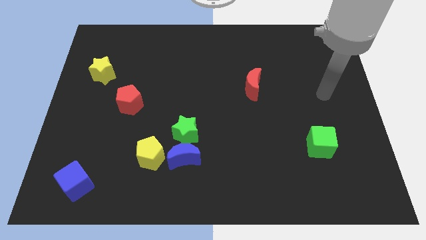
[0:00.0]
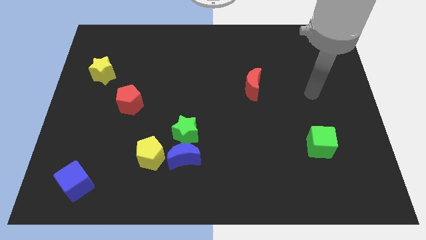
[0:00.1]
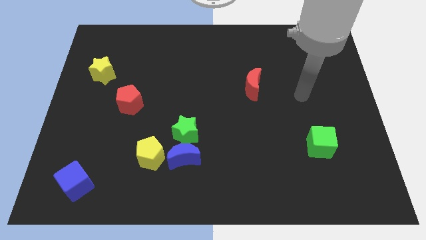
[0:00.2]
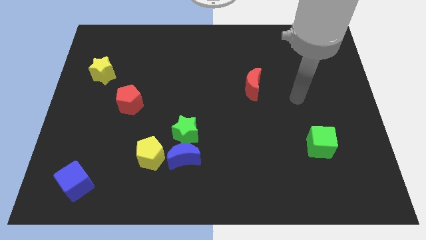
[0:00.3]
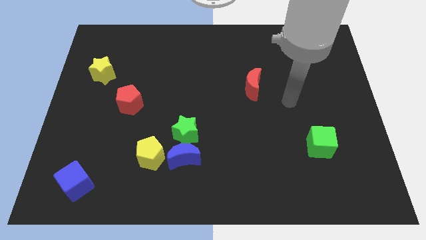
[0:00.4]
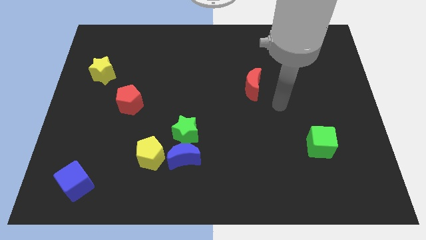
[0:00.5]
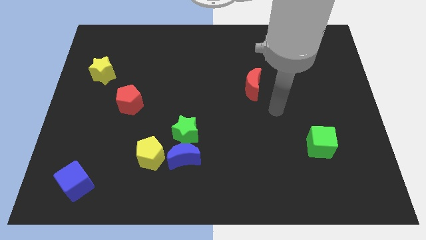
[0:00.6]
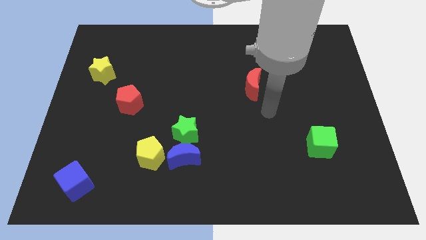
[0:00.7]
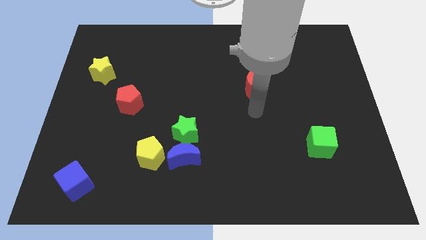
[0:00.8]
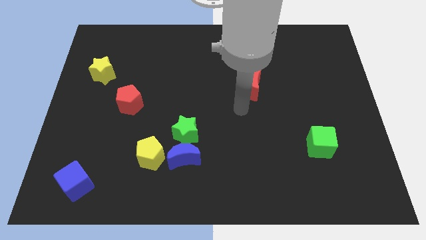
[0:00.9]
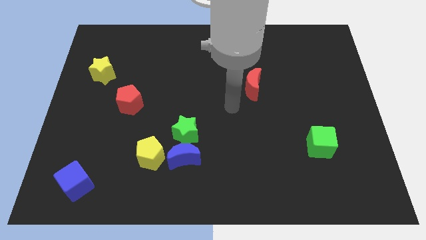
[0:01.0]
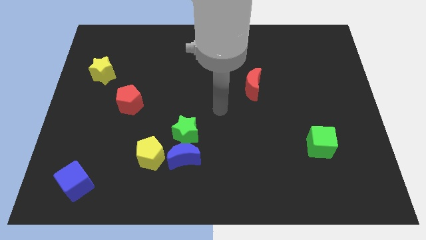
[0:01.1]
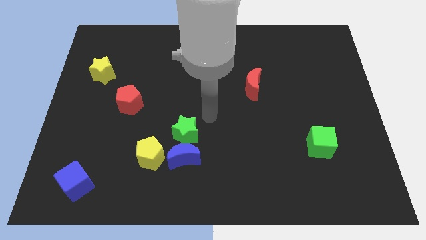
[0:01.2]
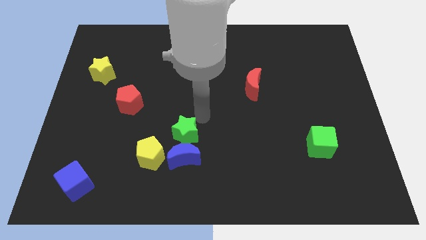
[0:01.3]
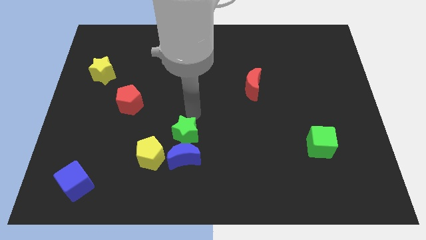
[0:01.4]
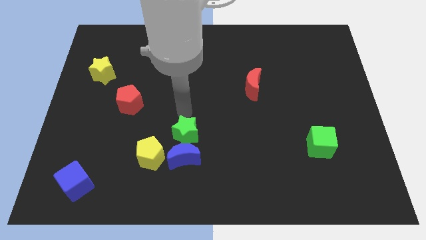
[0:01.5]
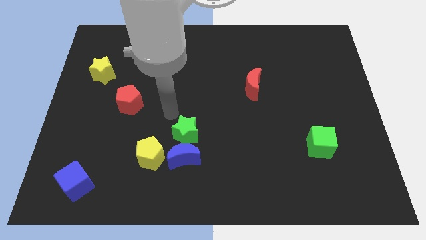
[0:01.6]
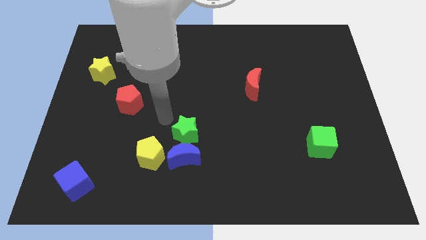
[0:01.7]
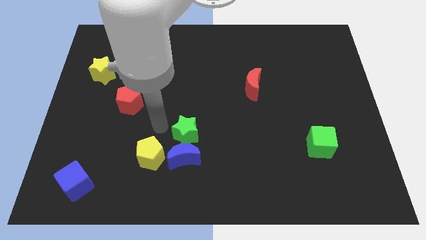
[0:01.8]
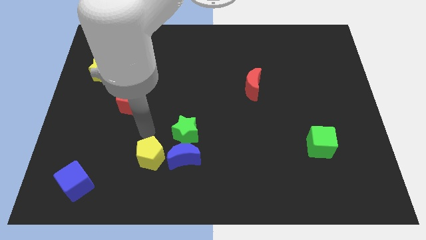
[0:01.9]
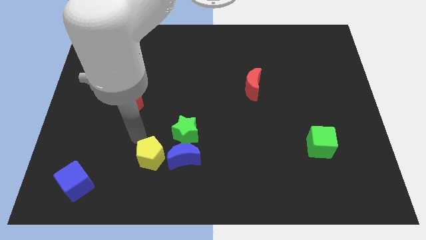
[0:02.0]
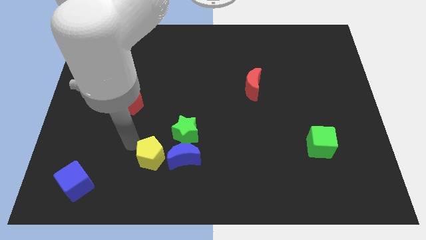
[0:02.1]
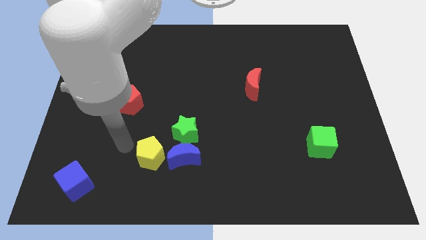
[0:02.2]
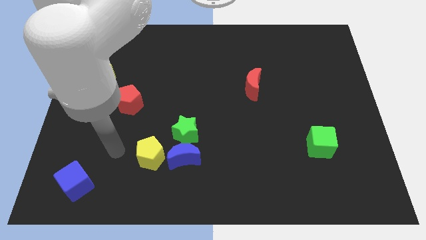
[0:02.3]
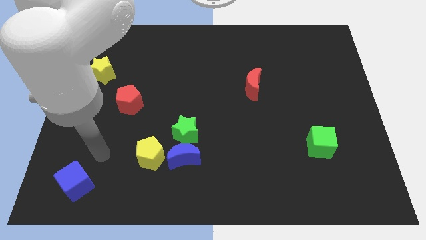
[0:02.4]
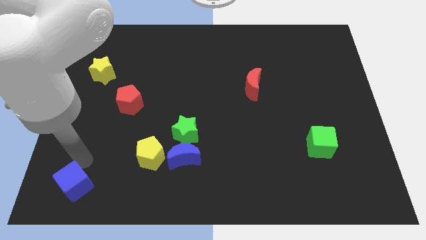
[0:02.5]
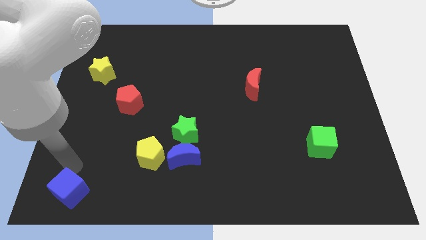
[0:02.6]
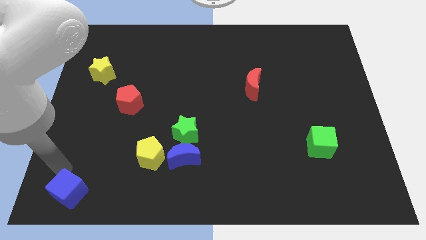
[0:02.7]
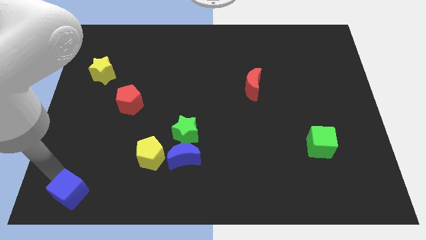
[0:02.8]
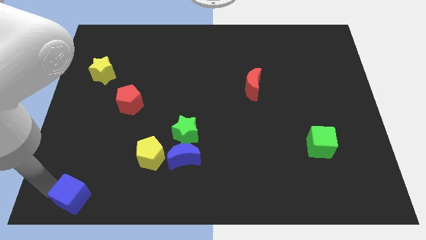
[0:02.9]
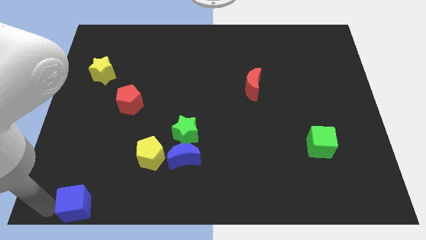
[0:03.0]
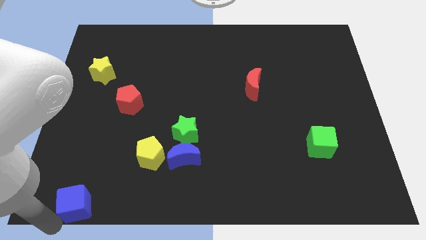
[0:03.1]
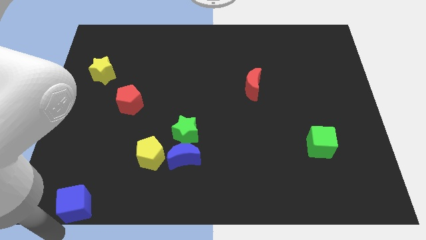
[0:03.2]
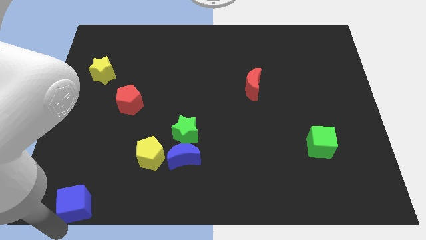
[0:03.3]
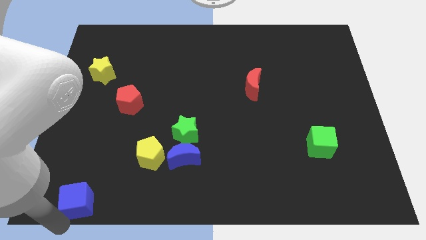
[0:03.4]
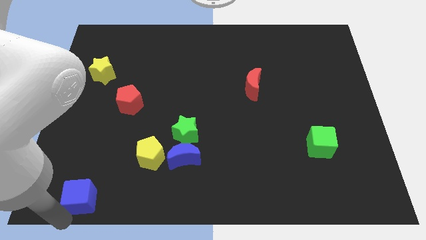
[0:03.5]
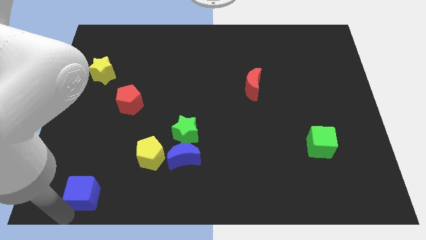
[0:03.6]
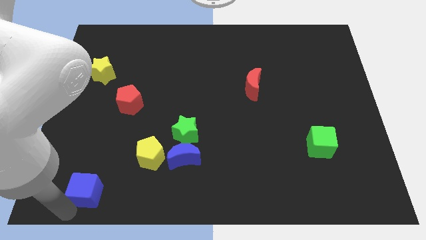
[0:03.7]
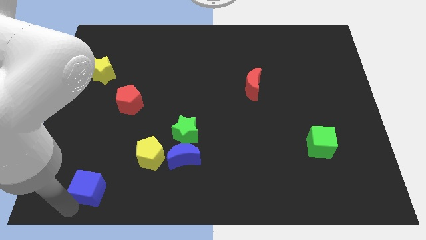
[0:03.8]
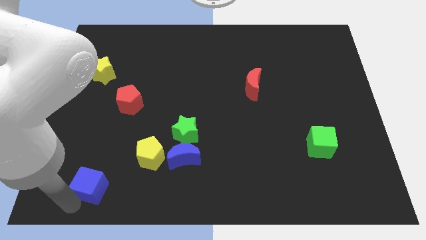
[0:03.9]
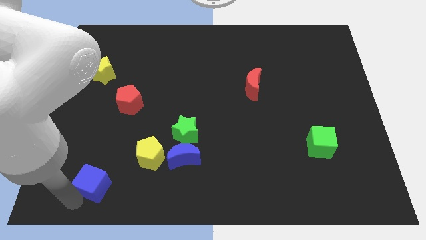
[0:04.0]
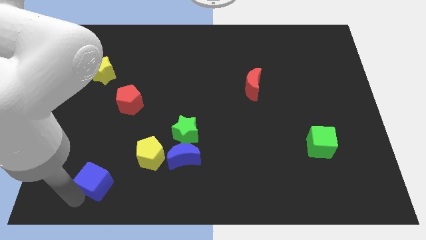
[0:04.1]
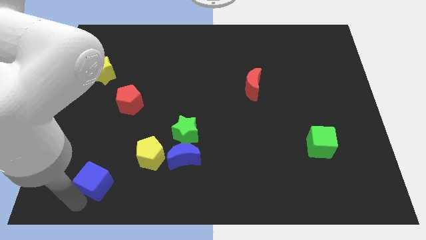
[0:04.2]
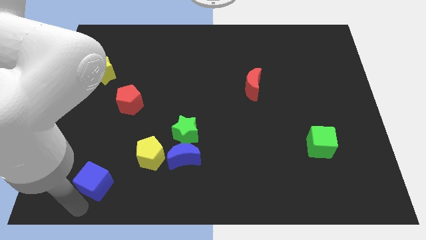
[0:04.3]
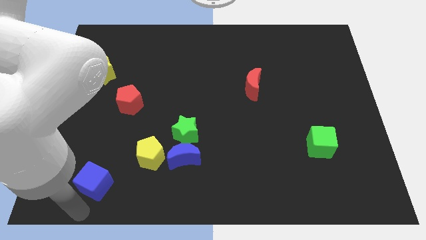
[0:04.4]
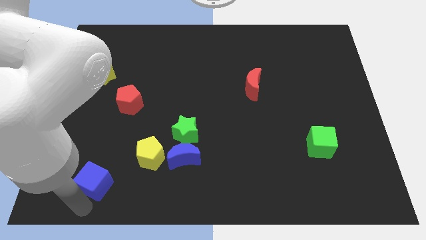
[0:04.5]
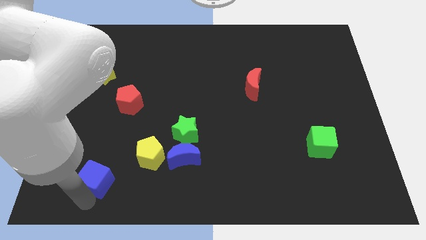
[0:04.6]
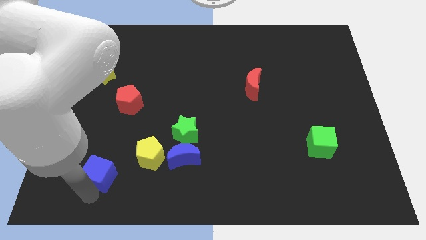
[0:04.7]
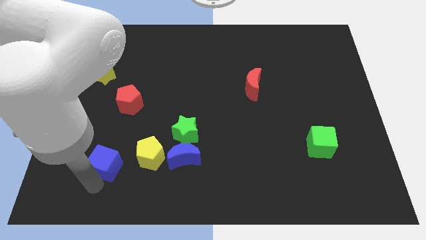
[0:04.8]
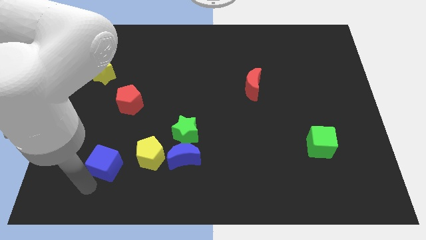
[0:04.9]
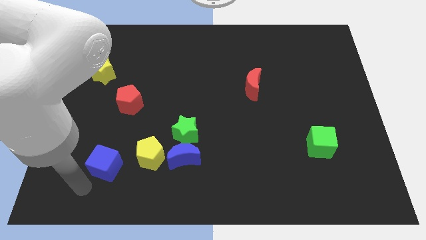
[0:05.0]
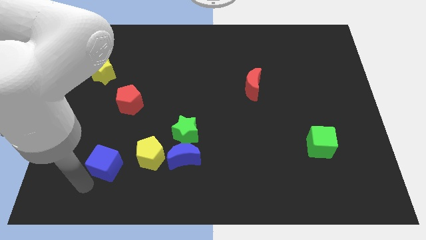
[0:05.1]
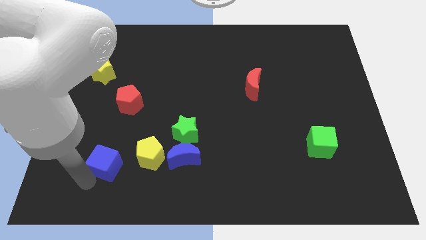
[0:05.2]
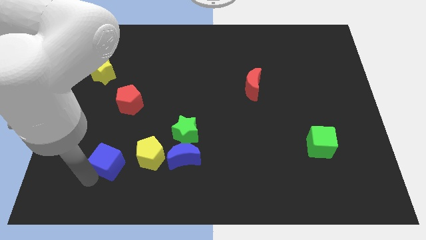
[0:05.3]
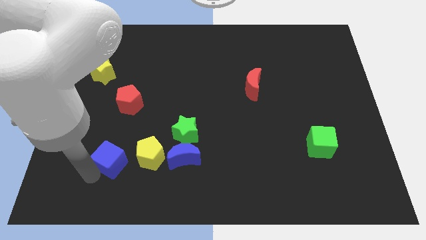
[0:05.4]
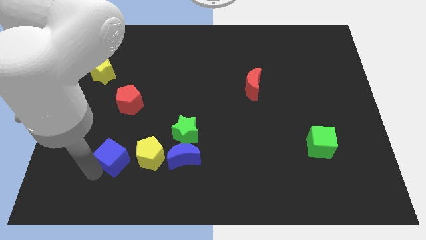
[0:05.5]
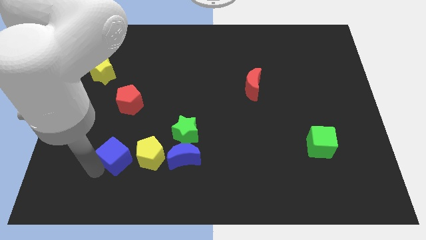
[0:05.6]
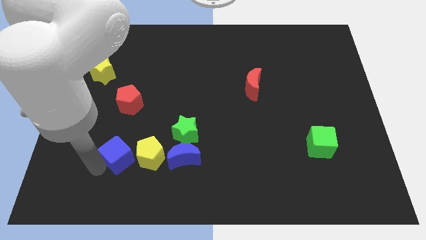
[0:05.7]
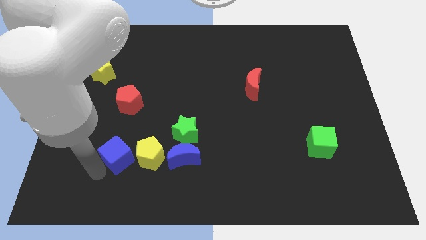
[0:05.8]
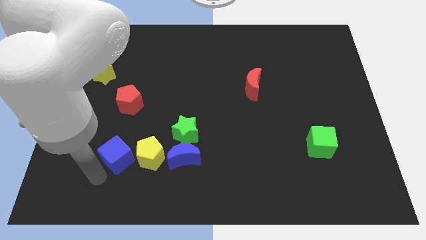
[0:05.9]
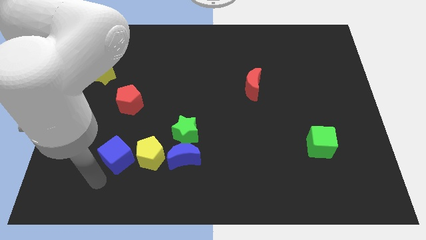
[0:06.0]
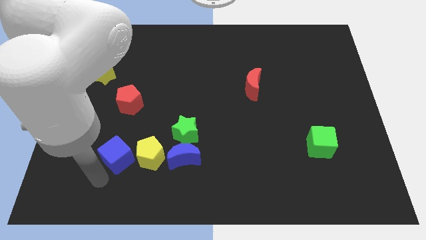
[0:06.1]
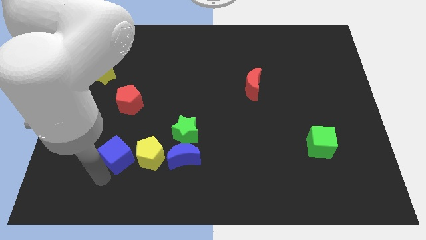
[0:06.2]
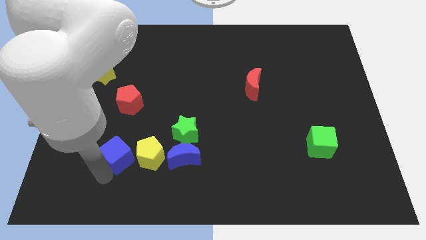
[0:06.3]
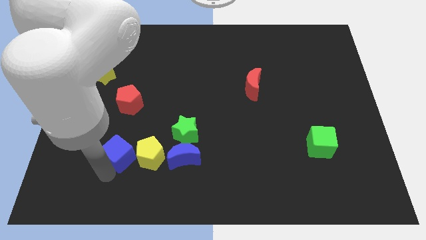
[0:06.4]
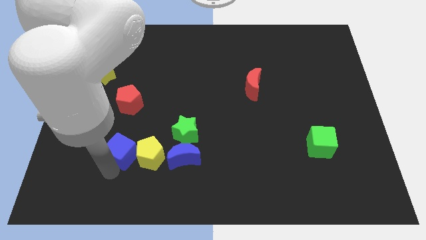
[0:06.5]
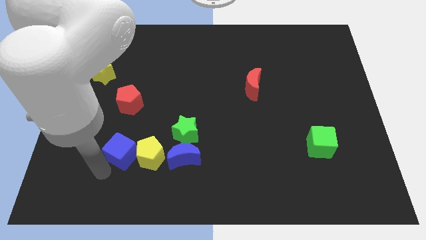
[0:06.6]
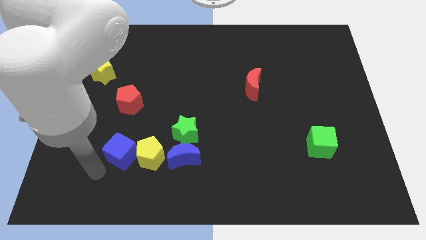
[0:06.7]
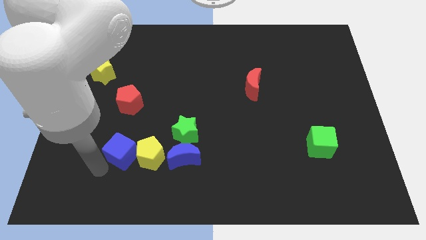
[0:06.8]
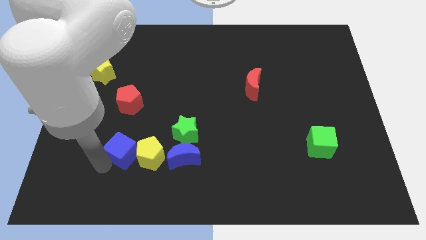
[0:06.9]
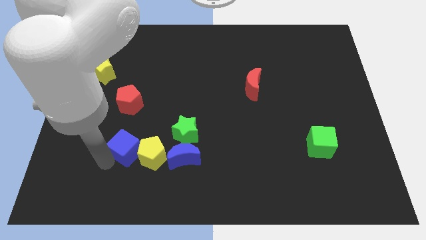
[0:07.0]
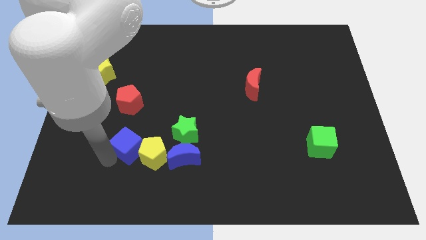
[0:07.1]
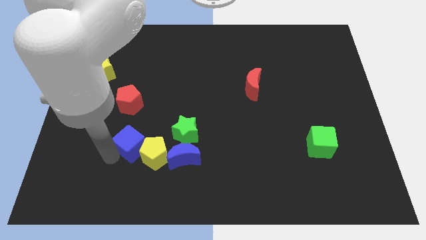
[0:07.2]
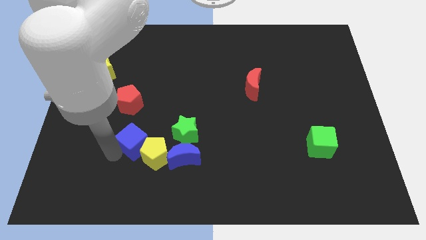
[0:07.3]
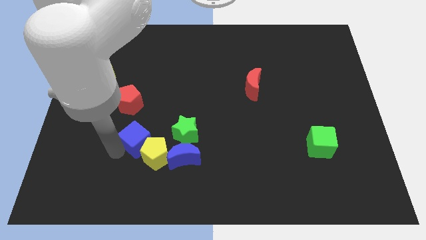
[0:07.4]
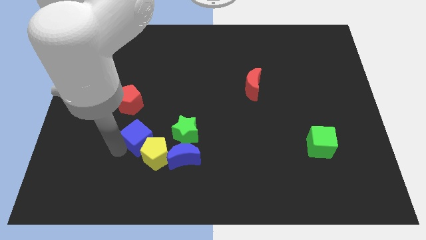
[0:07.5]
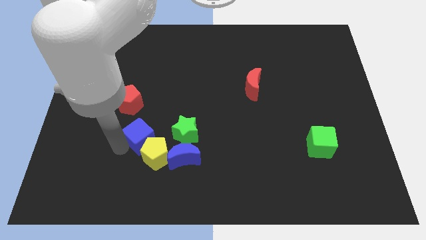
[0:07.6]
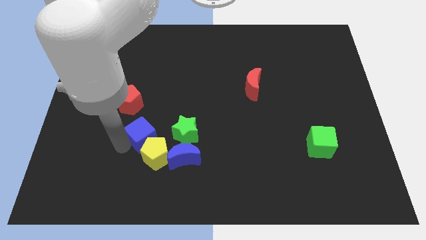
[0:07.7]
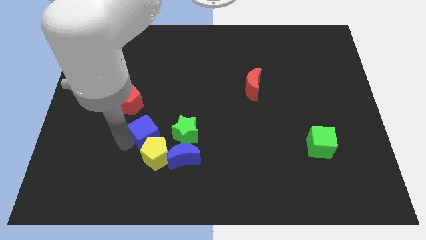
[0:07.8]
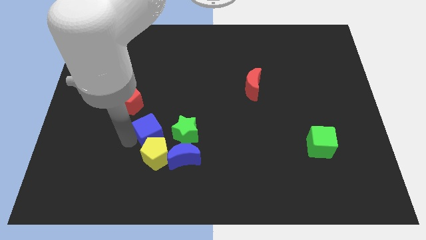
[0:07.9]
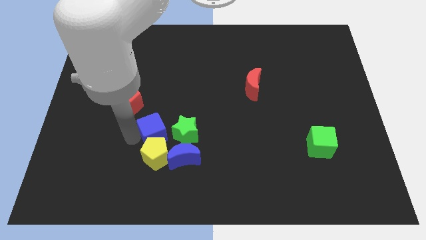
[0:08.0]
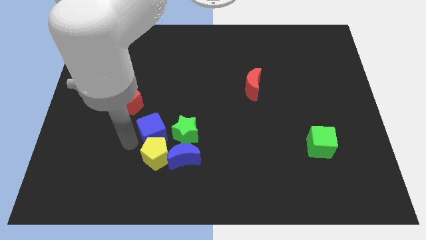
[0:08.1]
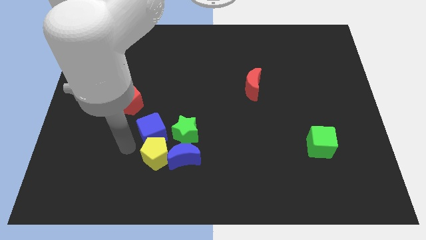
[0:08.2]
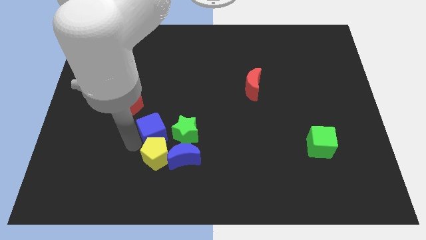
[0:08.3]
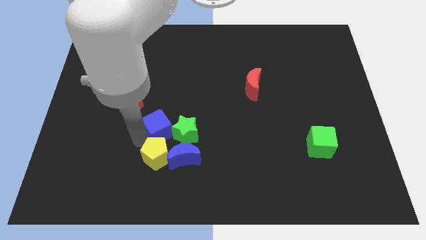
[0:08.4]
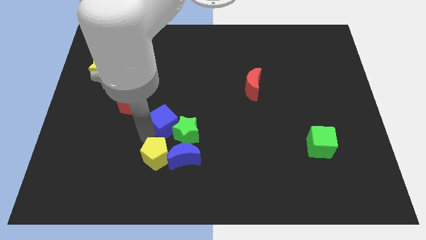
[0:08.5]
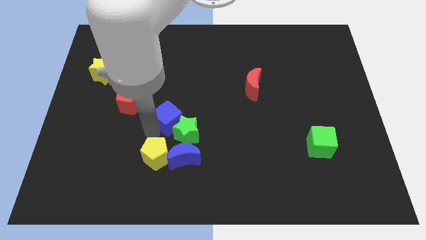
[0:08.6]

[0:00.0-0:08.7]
put the blue cube to the center
